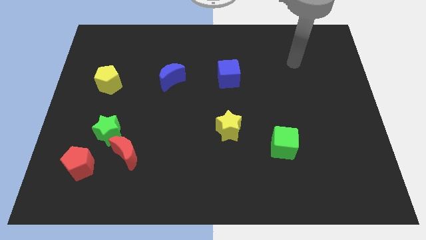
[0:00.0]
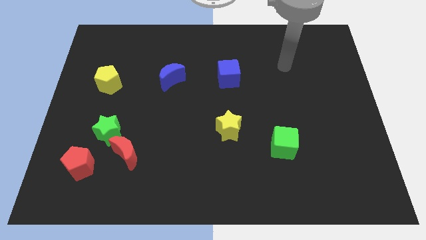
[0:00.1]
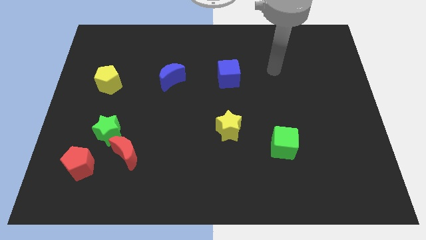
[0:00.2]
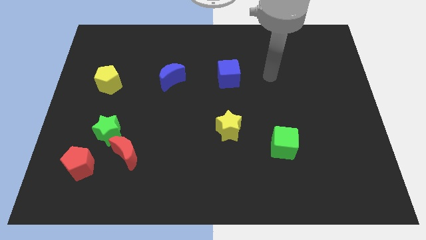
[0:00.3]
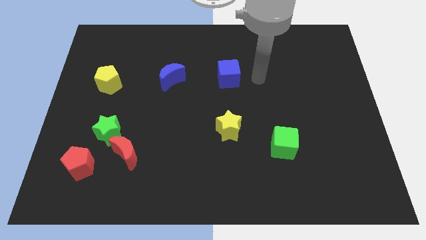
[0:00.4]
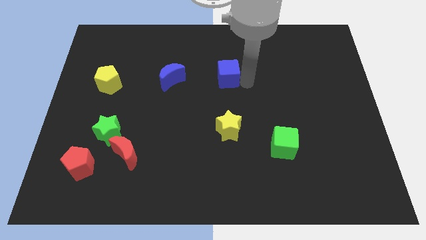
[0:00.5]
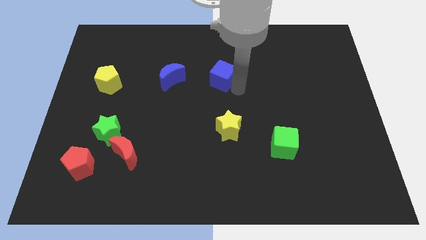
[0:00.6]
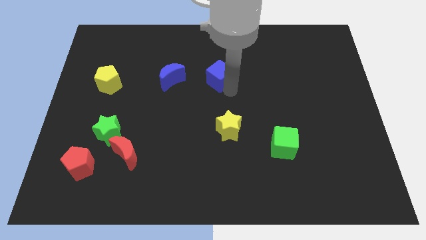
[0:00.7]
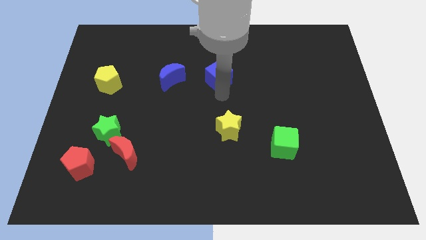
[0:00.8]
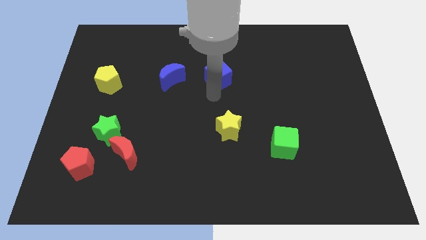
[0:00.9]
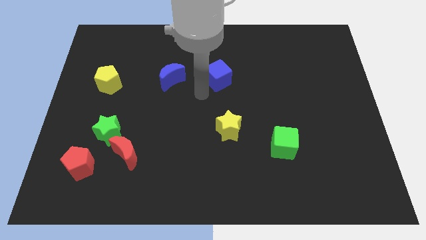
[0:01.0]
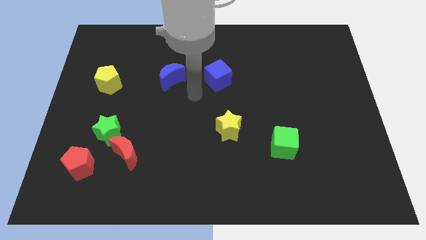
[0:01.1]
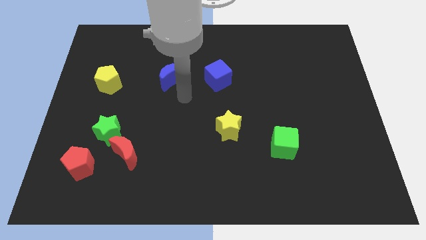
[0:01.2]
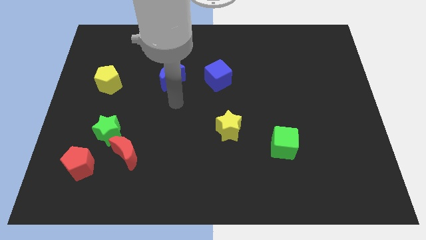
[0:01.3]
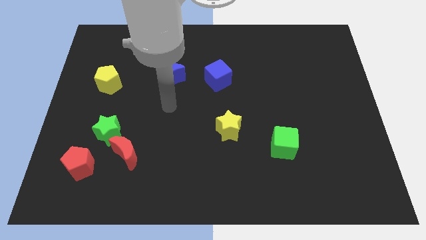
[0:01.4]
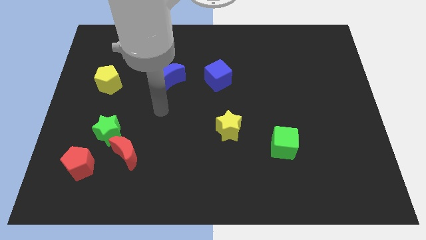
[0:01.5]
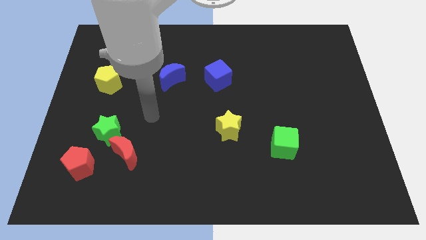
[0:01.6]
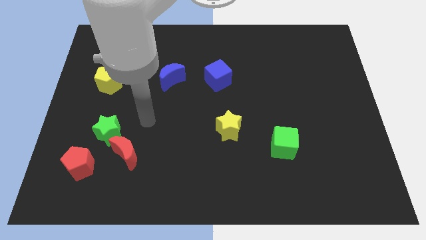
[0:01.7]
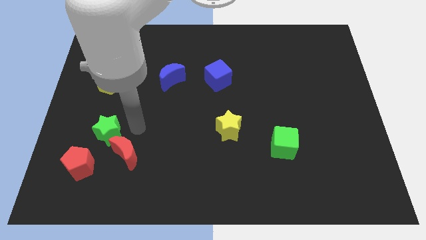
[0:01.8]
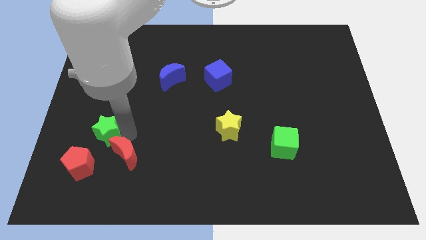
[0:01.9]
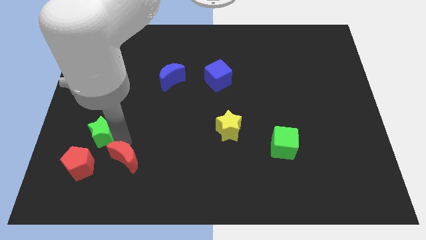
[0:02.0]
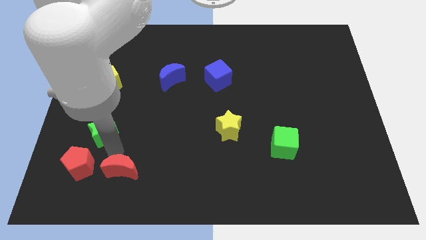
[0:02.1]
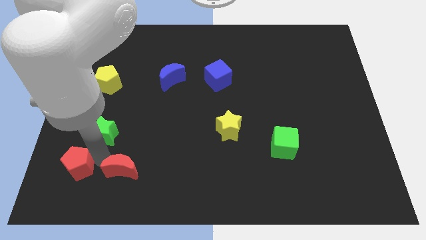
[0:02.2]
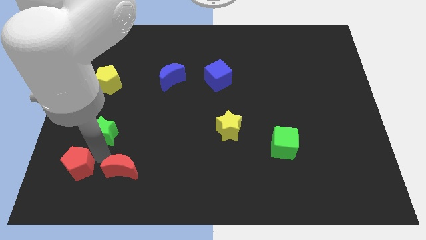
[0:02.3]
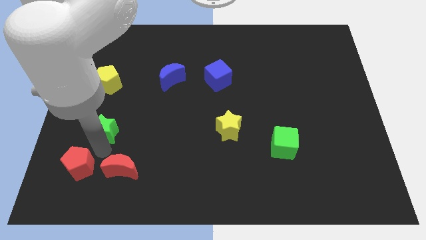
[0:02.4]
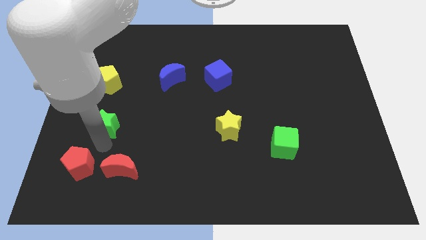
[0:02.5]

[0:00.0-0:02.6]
pull the green star apart from the red moon and red pentagon

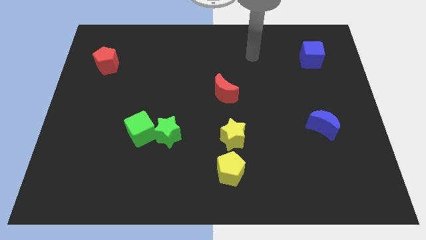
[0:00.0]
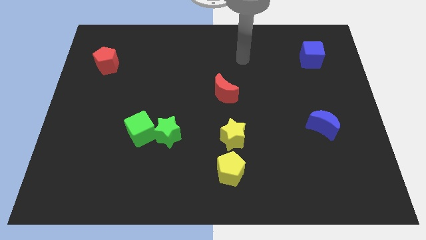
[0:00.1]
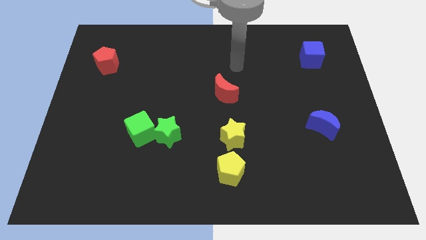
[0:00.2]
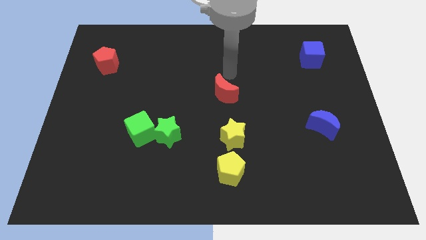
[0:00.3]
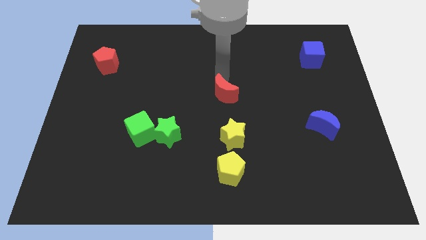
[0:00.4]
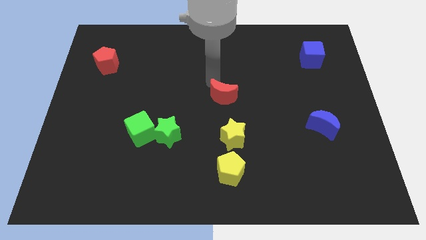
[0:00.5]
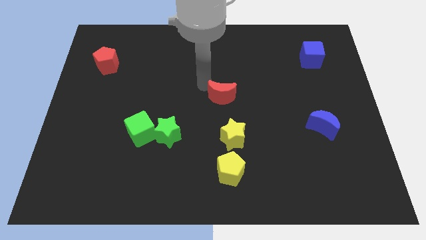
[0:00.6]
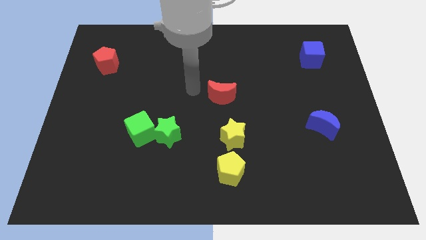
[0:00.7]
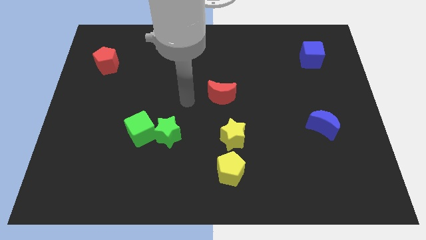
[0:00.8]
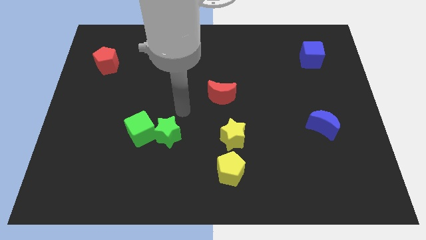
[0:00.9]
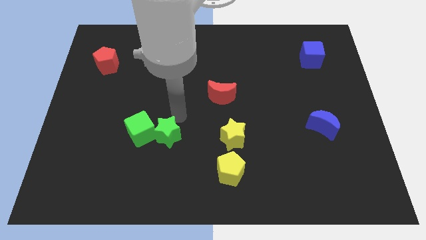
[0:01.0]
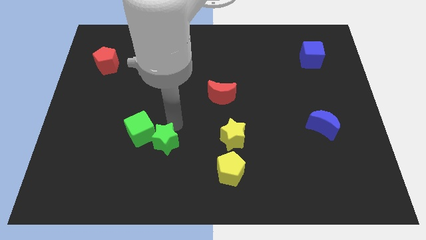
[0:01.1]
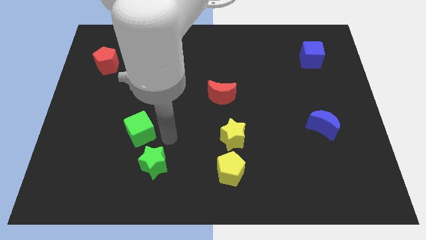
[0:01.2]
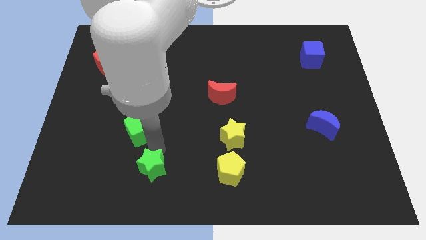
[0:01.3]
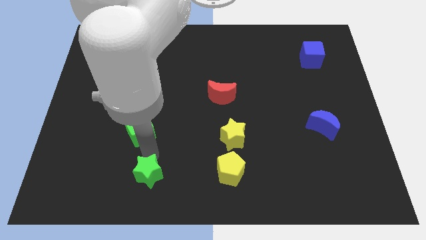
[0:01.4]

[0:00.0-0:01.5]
pull the green cube apart from the green star

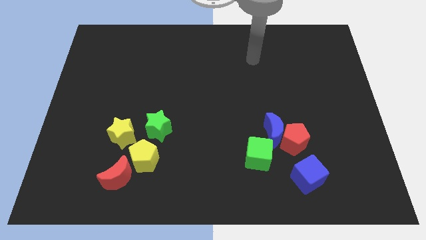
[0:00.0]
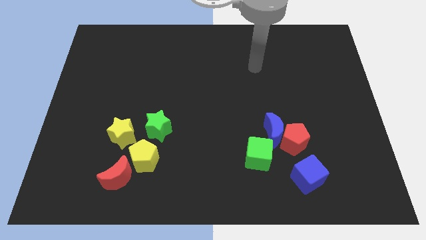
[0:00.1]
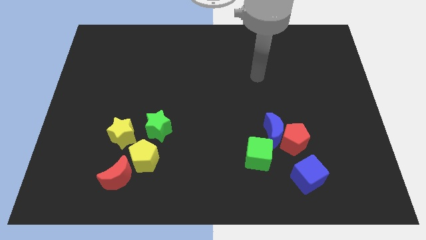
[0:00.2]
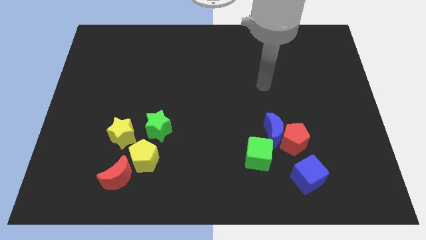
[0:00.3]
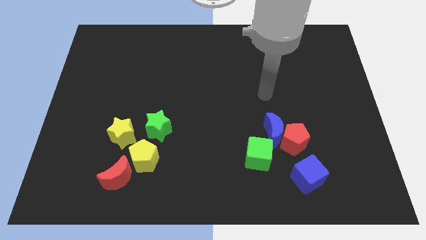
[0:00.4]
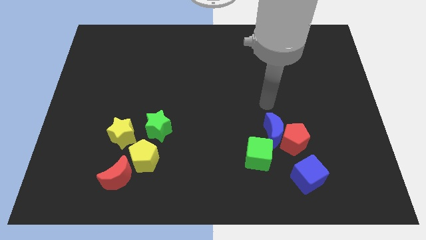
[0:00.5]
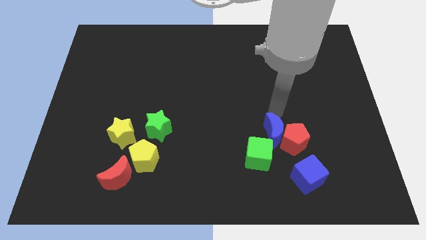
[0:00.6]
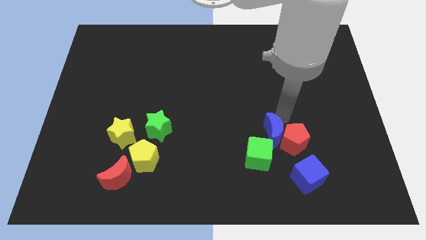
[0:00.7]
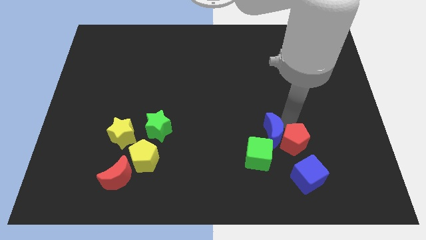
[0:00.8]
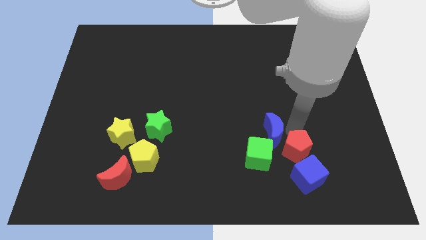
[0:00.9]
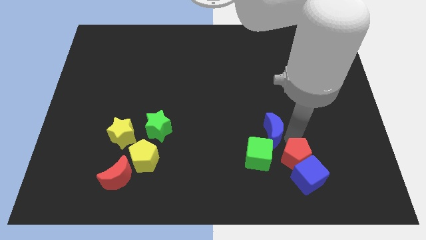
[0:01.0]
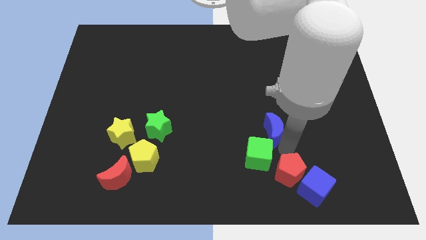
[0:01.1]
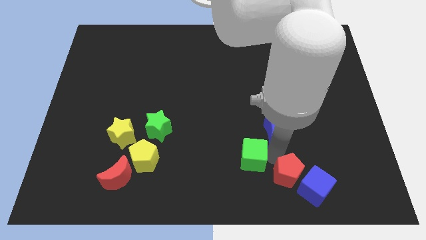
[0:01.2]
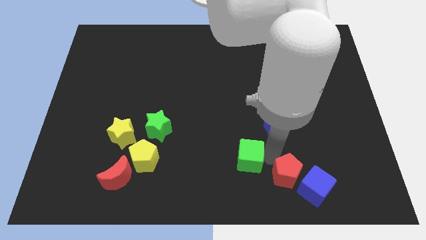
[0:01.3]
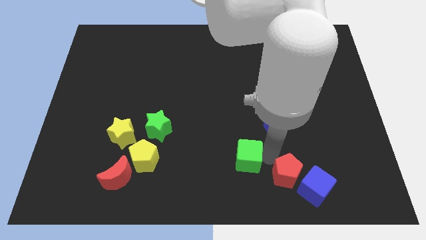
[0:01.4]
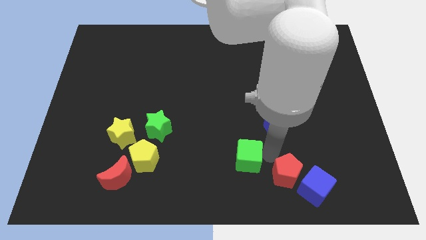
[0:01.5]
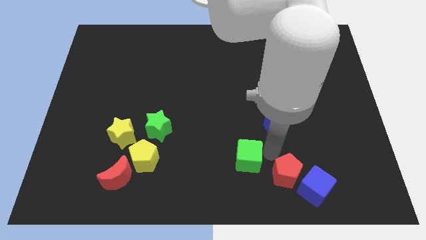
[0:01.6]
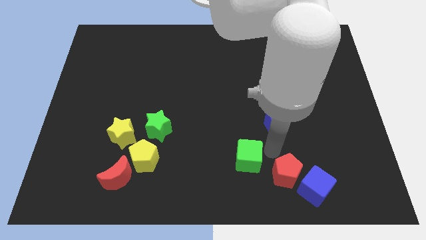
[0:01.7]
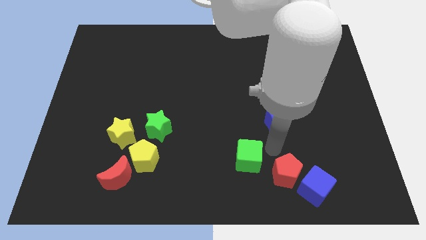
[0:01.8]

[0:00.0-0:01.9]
separate the blue moon from the red pentagon and green cube

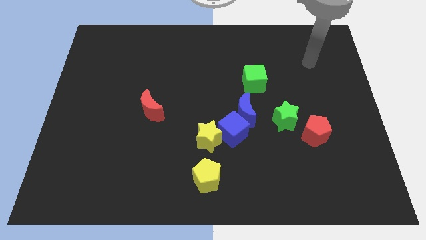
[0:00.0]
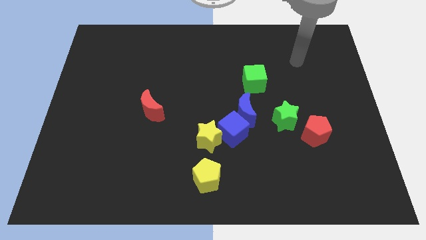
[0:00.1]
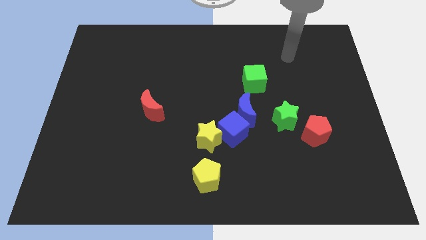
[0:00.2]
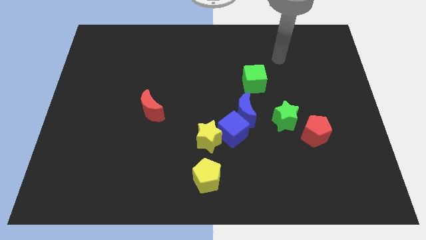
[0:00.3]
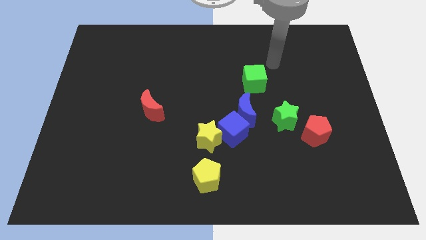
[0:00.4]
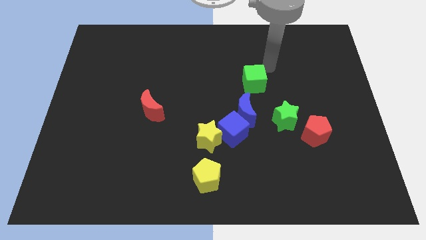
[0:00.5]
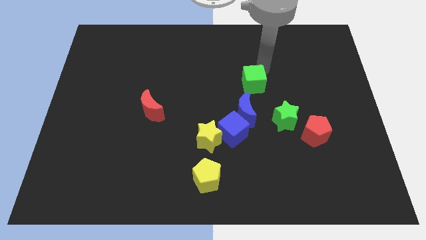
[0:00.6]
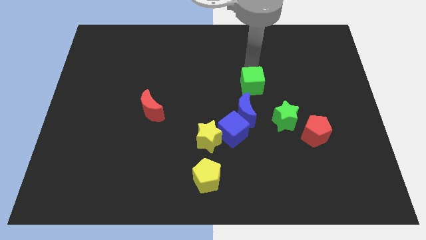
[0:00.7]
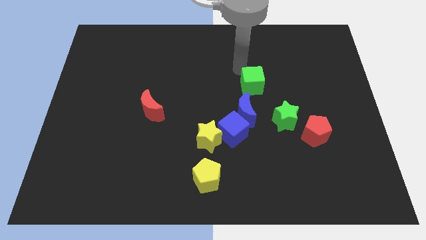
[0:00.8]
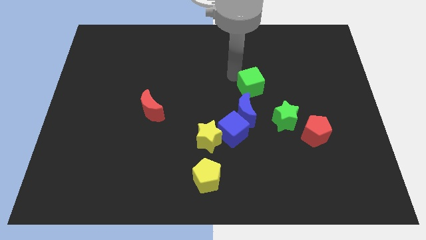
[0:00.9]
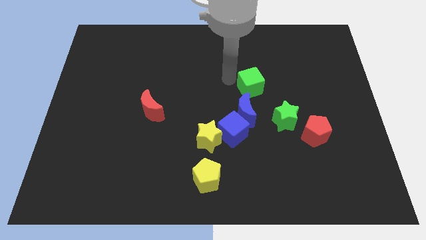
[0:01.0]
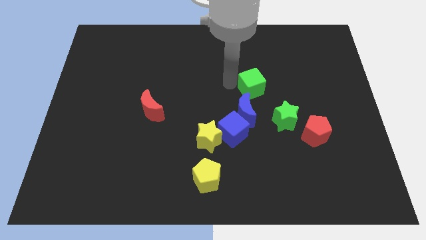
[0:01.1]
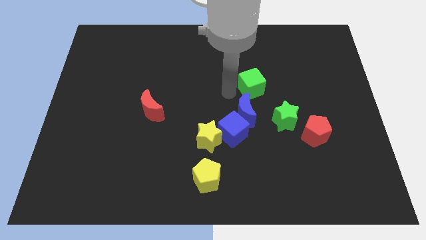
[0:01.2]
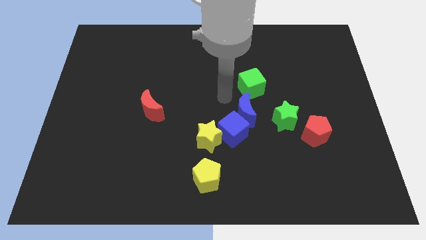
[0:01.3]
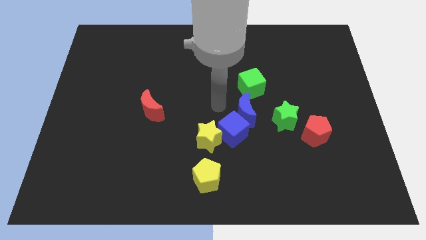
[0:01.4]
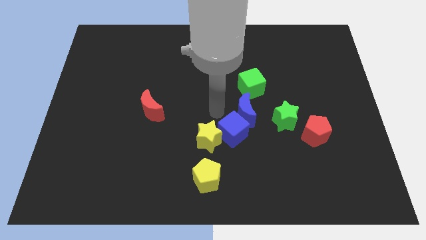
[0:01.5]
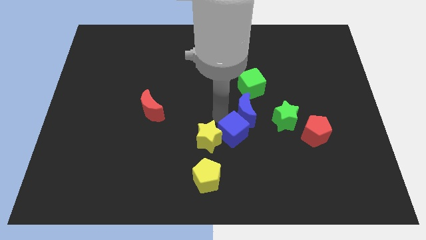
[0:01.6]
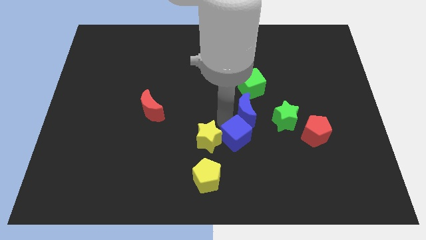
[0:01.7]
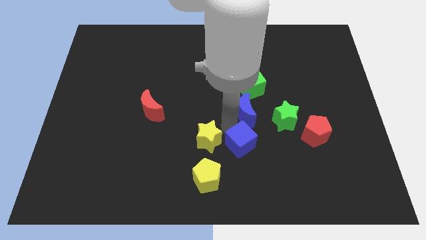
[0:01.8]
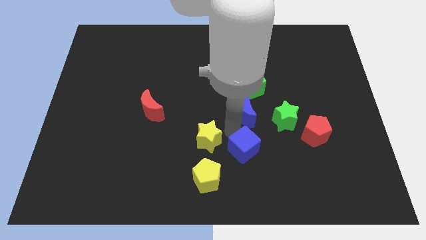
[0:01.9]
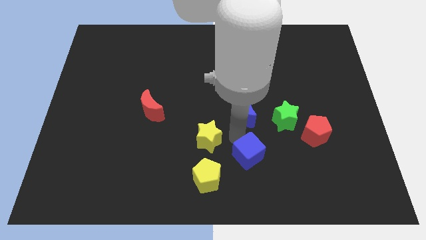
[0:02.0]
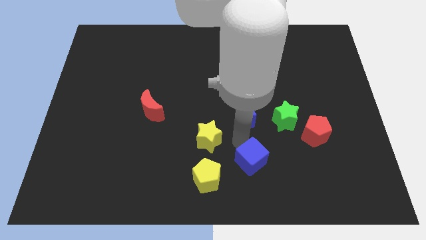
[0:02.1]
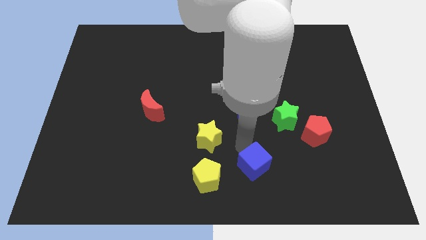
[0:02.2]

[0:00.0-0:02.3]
pull the blue cube apart from the yellow star and blue moon

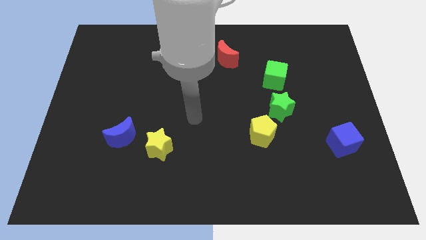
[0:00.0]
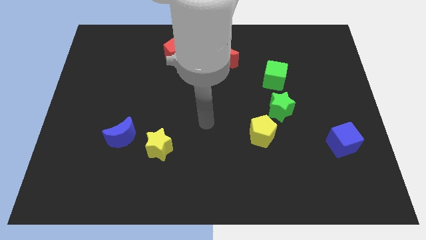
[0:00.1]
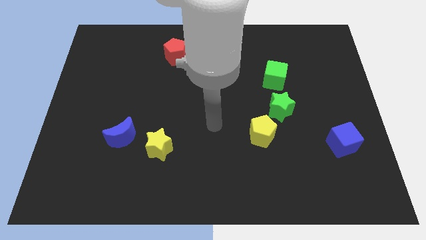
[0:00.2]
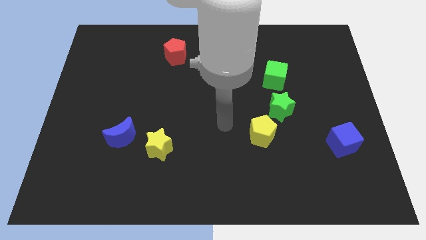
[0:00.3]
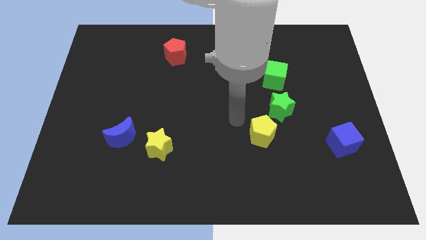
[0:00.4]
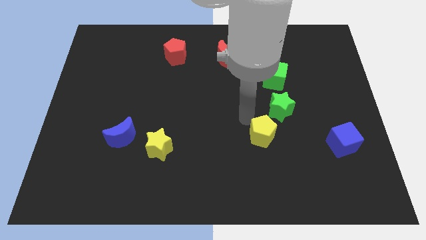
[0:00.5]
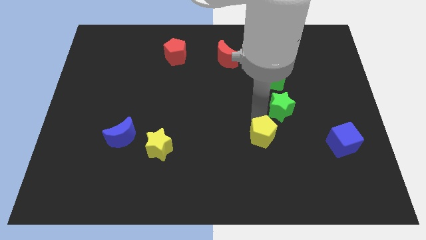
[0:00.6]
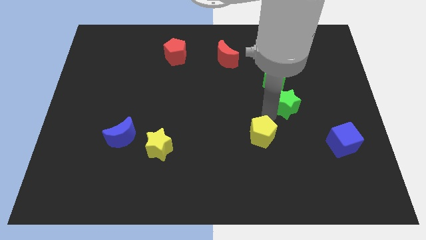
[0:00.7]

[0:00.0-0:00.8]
pull the yellow pentagon apart from the green star

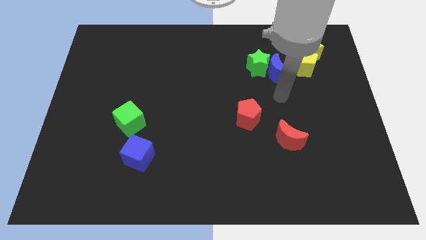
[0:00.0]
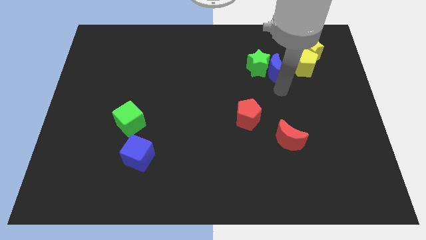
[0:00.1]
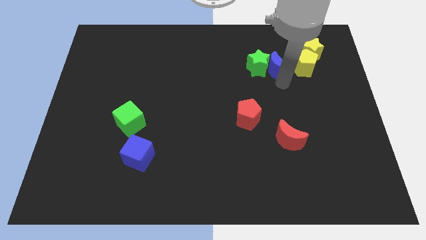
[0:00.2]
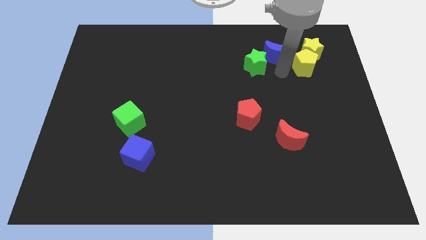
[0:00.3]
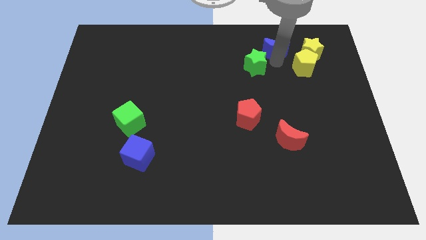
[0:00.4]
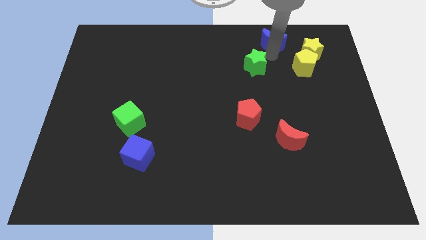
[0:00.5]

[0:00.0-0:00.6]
pull the green star apart from the blue moon
